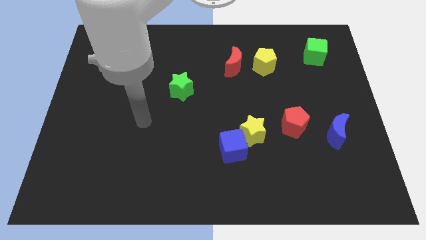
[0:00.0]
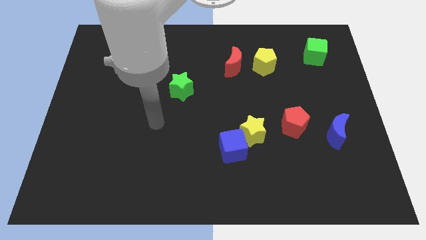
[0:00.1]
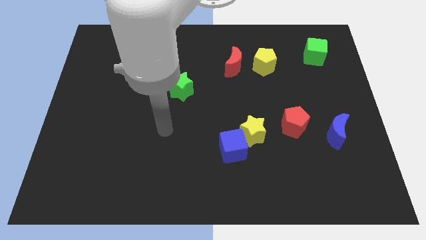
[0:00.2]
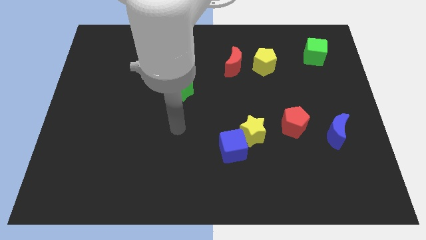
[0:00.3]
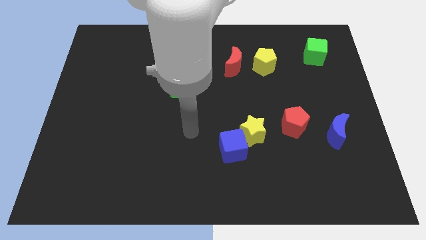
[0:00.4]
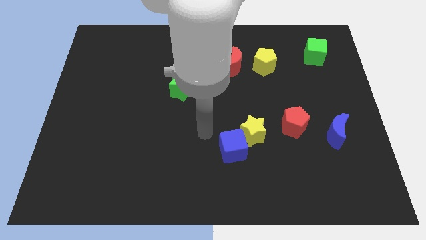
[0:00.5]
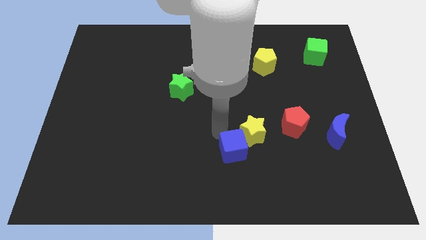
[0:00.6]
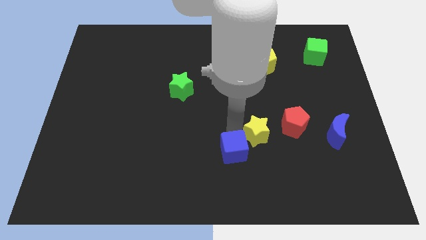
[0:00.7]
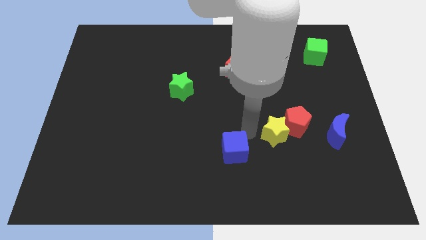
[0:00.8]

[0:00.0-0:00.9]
move the blue cube away from the yellow star

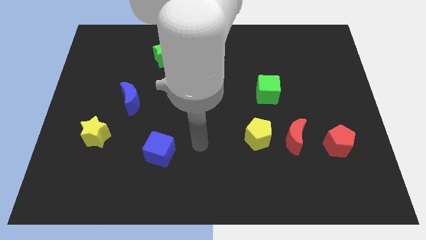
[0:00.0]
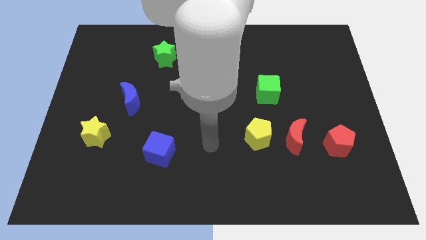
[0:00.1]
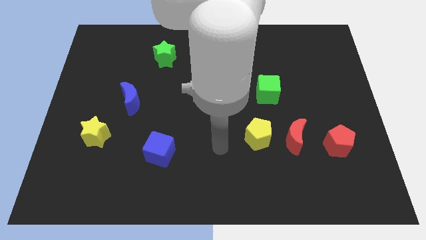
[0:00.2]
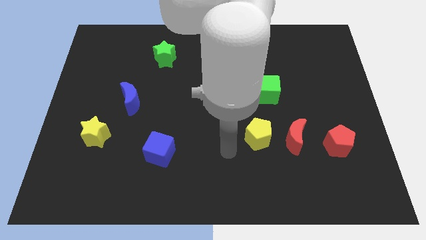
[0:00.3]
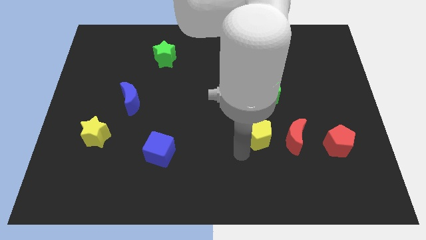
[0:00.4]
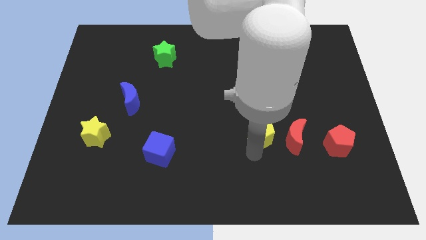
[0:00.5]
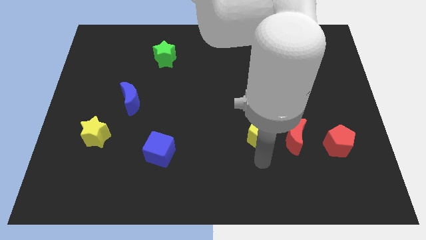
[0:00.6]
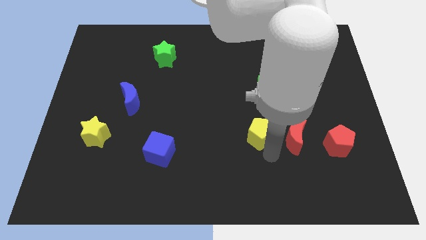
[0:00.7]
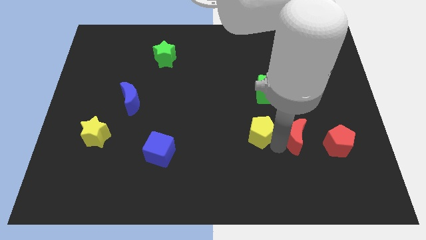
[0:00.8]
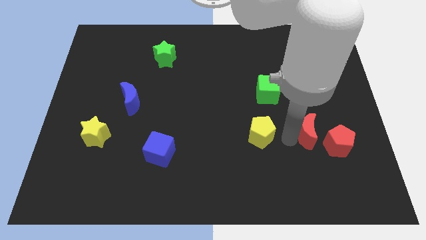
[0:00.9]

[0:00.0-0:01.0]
move the yellow pentagon away from the red moon

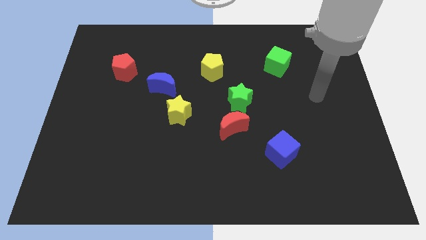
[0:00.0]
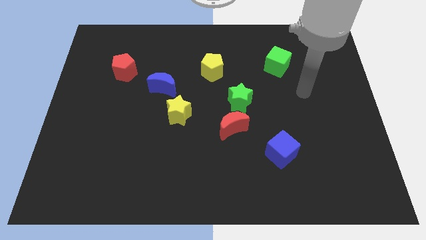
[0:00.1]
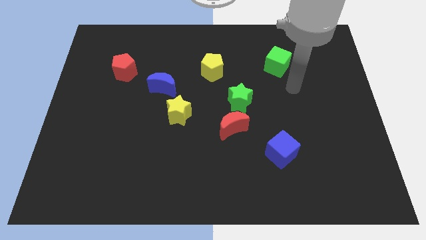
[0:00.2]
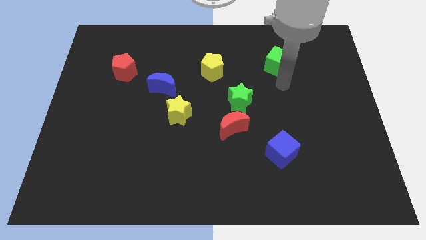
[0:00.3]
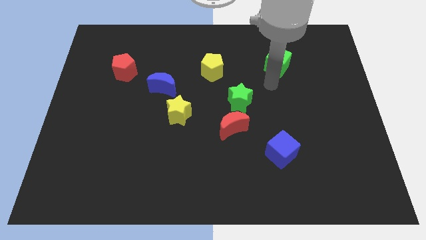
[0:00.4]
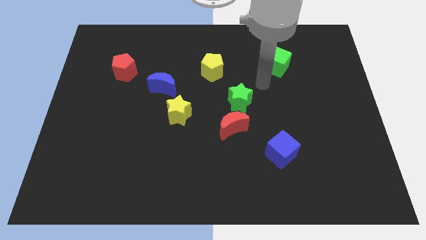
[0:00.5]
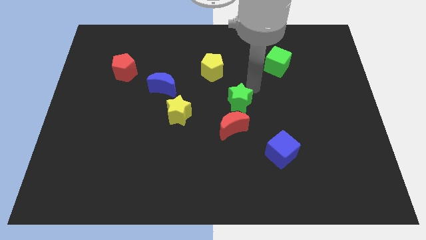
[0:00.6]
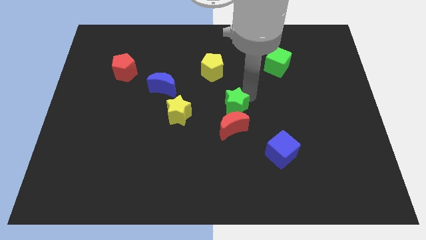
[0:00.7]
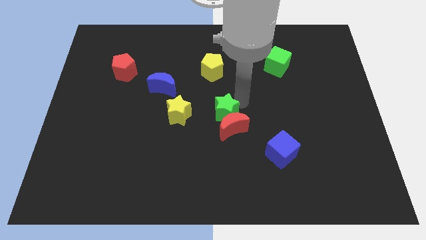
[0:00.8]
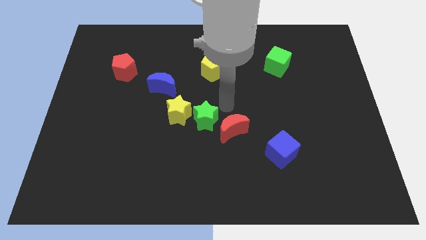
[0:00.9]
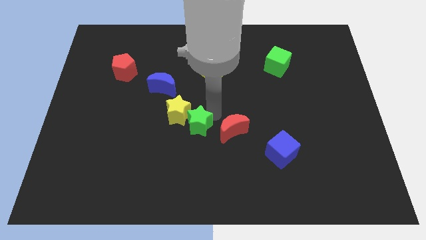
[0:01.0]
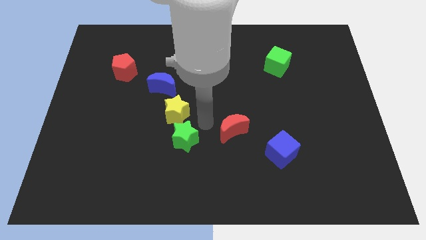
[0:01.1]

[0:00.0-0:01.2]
move the red moon away from the green star

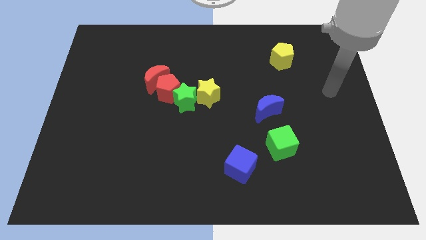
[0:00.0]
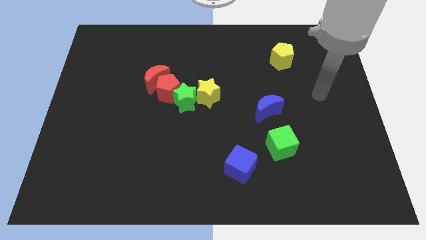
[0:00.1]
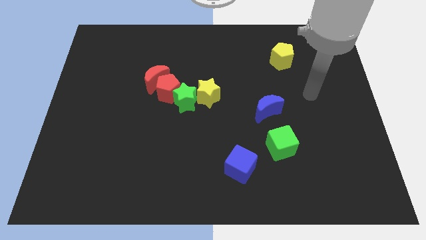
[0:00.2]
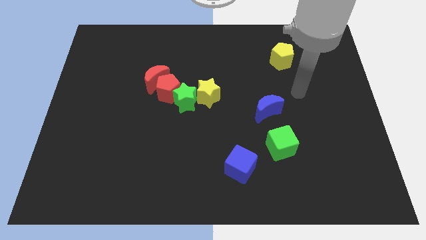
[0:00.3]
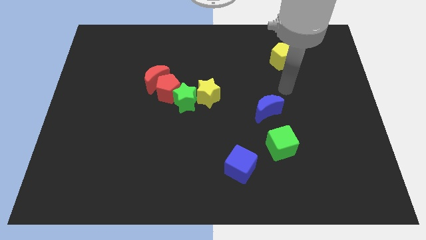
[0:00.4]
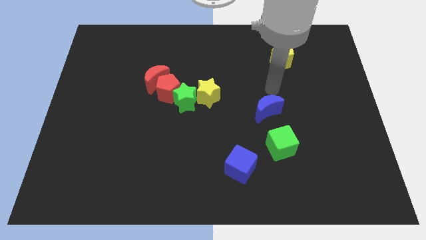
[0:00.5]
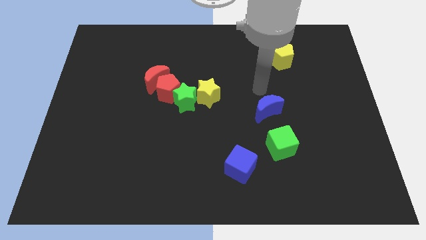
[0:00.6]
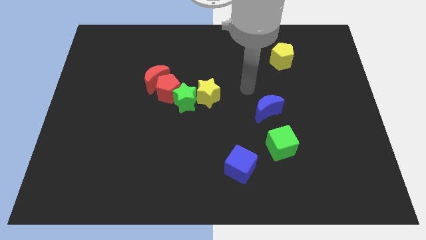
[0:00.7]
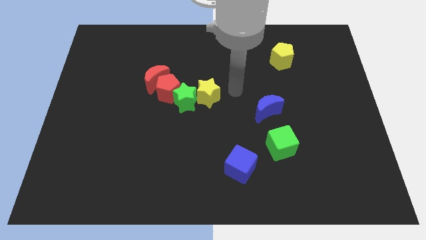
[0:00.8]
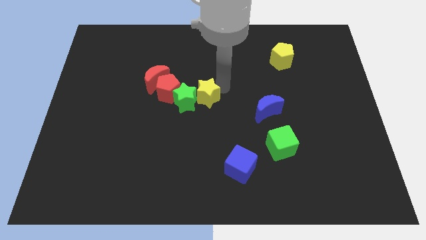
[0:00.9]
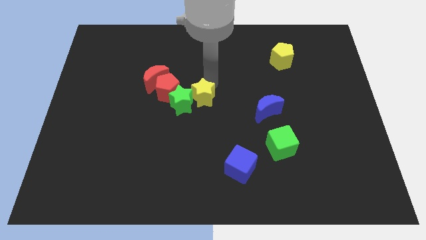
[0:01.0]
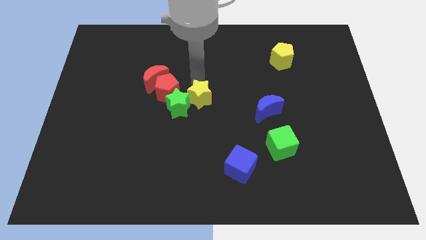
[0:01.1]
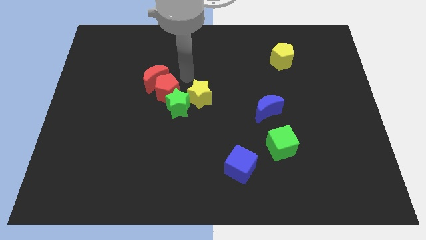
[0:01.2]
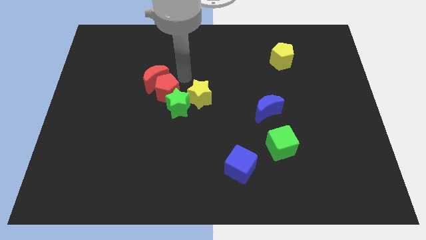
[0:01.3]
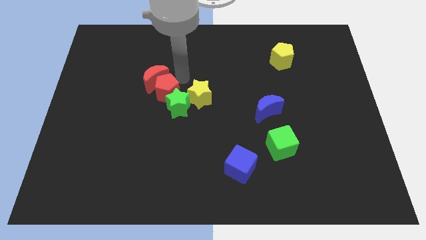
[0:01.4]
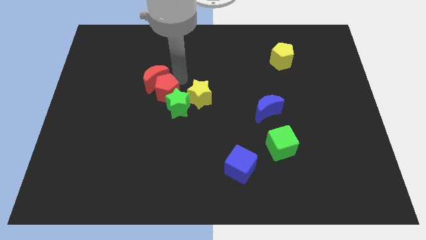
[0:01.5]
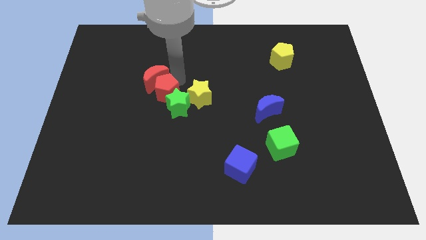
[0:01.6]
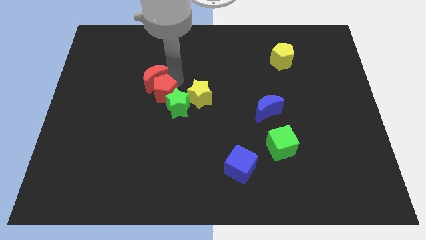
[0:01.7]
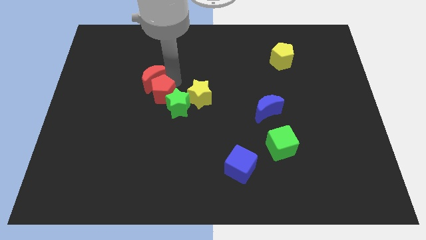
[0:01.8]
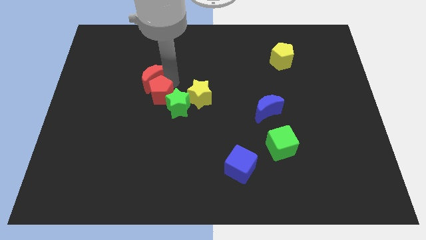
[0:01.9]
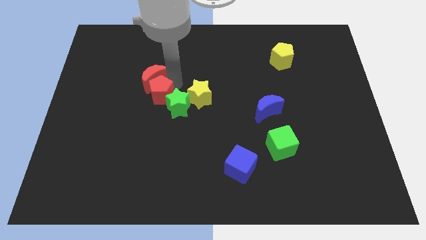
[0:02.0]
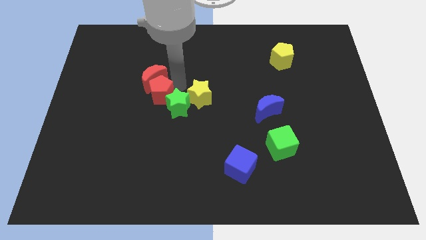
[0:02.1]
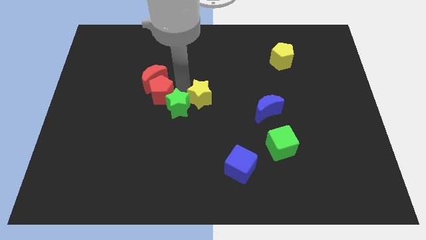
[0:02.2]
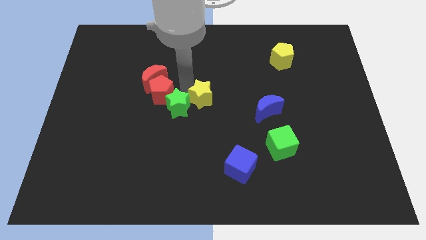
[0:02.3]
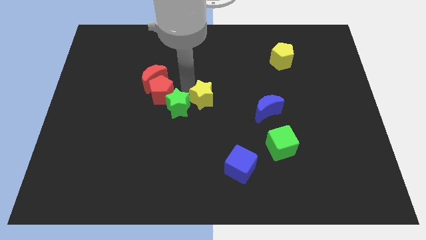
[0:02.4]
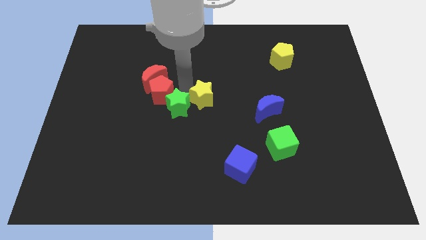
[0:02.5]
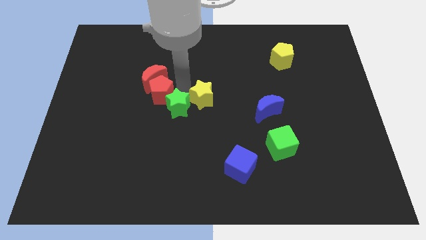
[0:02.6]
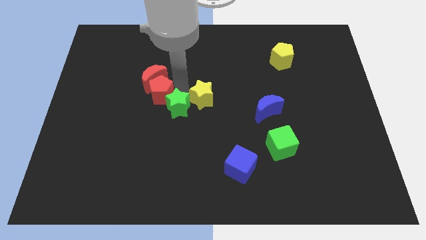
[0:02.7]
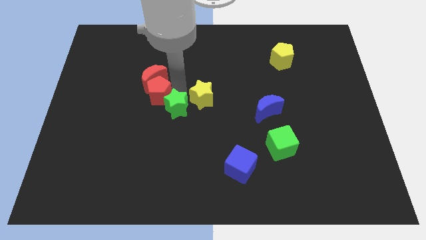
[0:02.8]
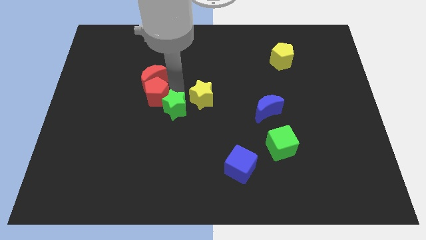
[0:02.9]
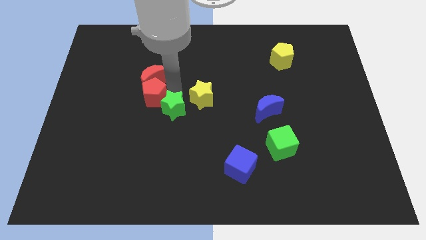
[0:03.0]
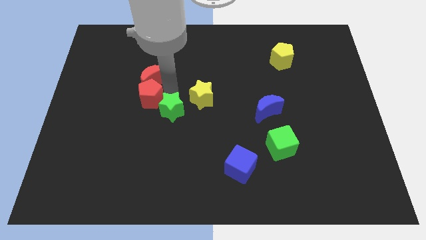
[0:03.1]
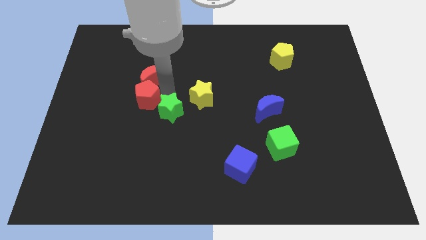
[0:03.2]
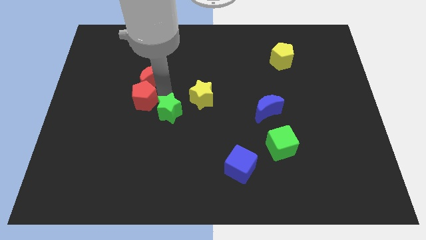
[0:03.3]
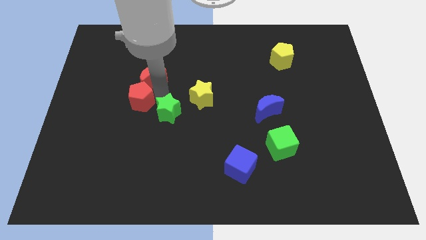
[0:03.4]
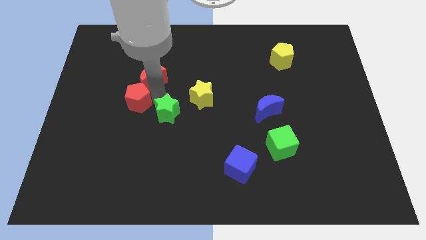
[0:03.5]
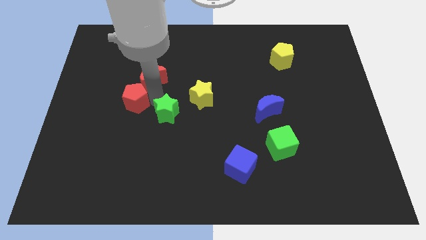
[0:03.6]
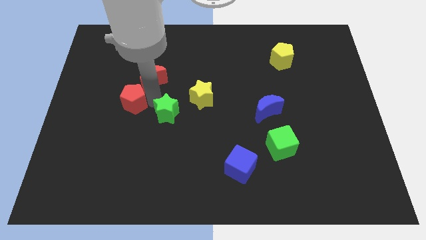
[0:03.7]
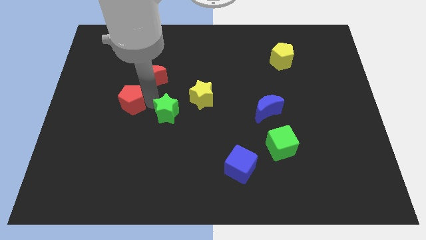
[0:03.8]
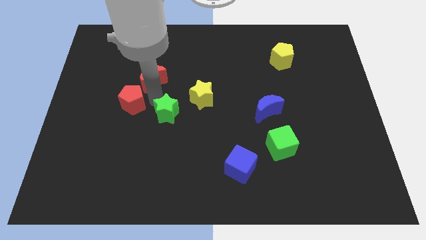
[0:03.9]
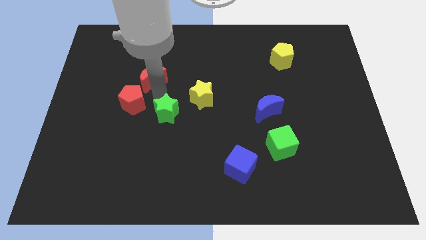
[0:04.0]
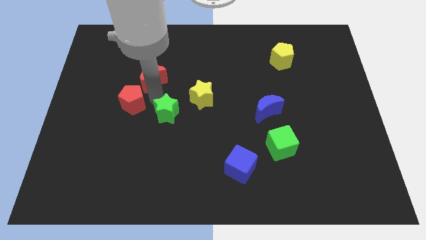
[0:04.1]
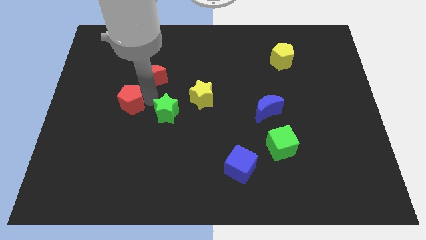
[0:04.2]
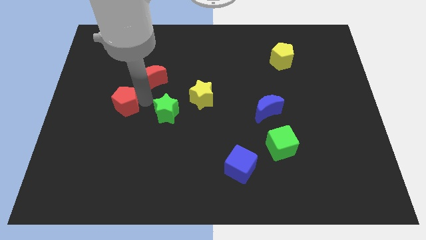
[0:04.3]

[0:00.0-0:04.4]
pull the red pentagon apart from the group

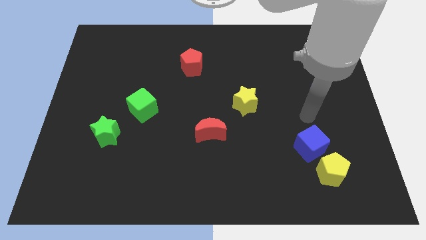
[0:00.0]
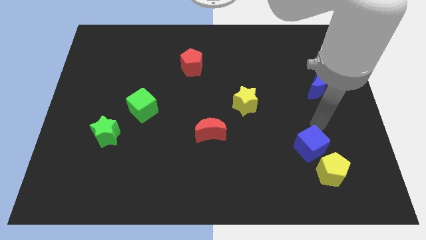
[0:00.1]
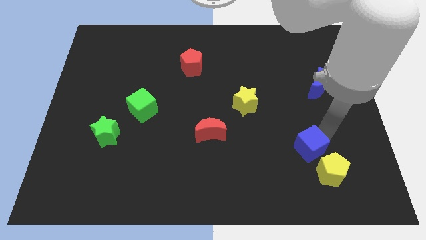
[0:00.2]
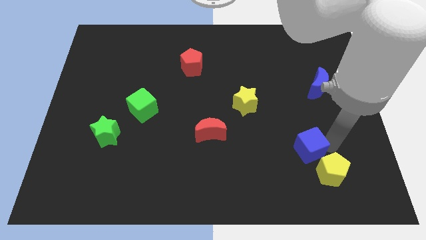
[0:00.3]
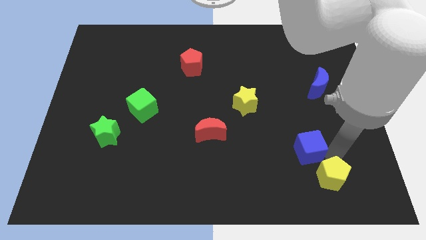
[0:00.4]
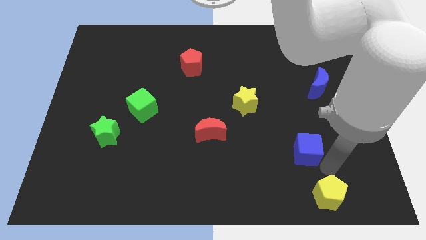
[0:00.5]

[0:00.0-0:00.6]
separate the blue cube from the yellow pentagon

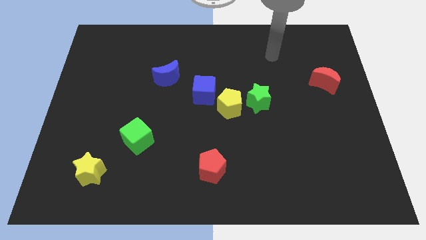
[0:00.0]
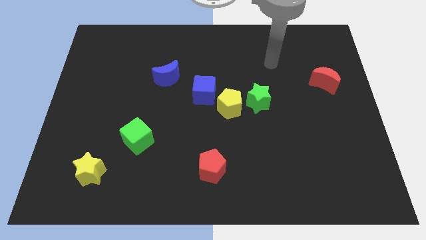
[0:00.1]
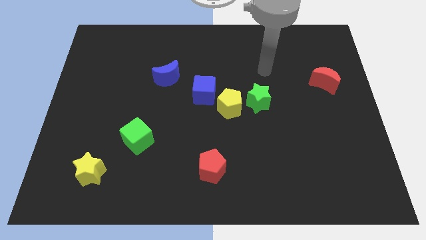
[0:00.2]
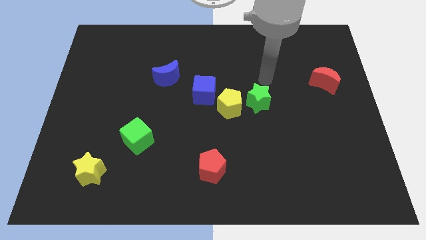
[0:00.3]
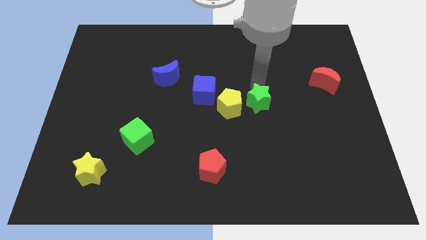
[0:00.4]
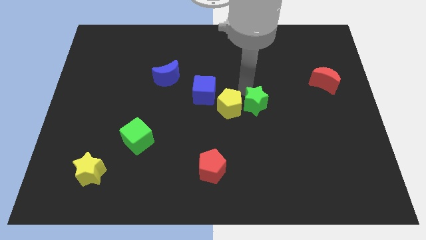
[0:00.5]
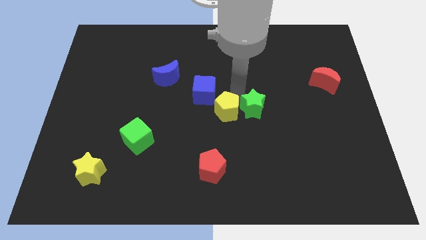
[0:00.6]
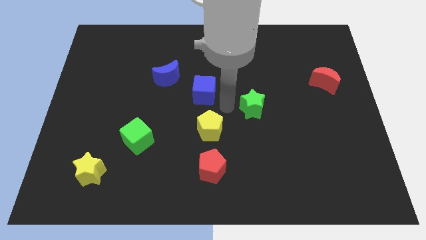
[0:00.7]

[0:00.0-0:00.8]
separate the green star from the yellow pentagon

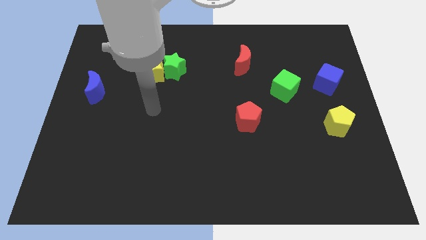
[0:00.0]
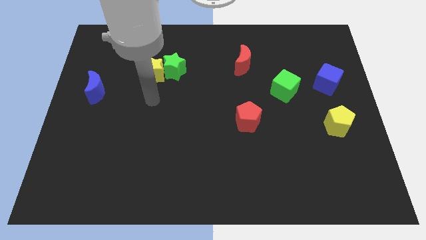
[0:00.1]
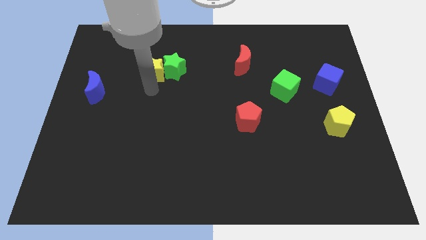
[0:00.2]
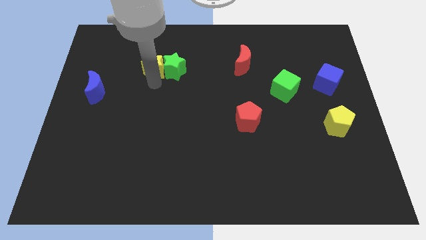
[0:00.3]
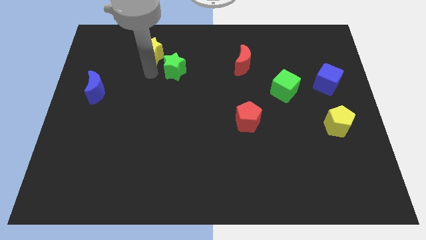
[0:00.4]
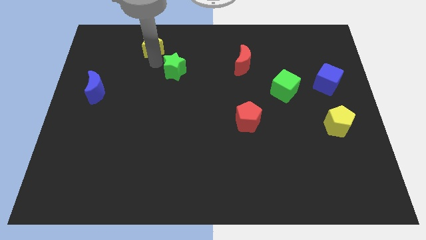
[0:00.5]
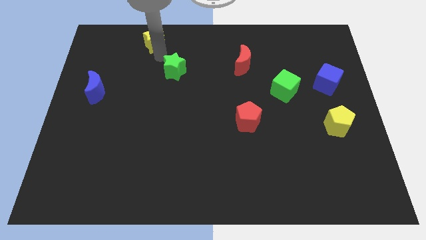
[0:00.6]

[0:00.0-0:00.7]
move the green star away from the yellow star
